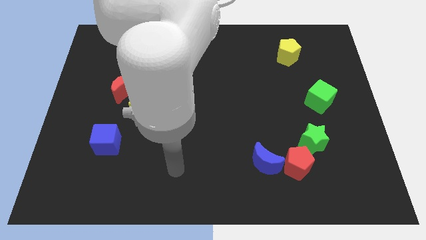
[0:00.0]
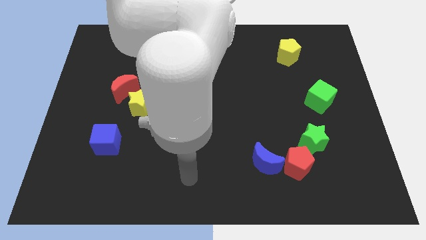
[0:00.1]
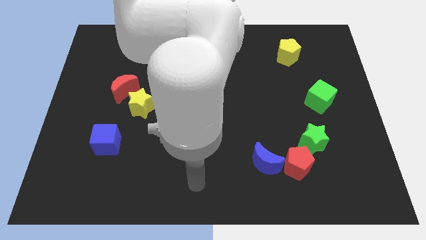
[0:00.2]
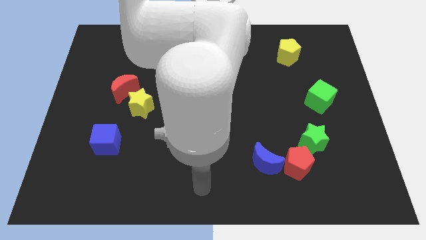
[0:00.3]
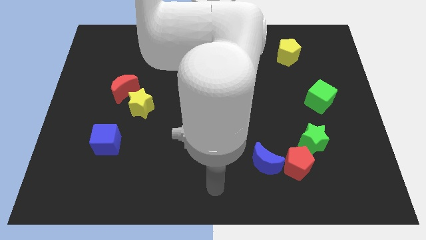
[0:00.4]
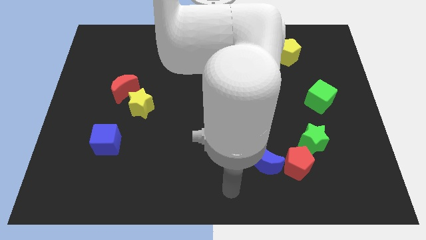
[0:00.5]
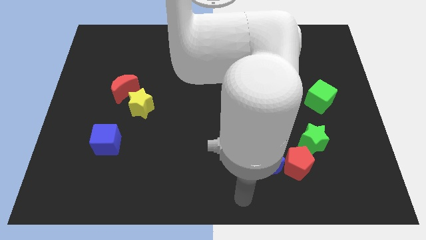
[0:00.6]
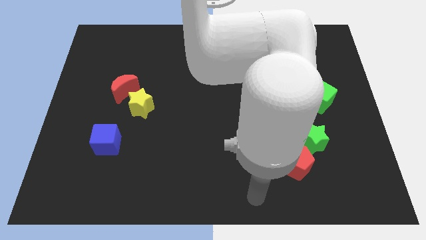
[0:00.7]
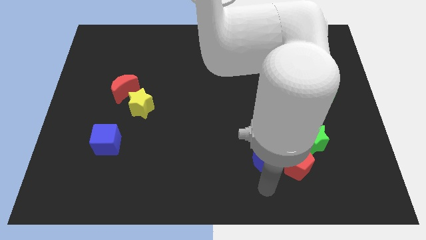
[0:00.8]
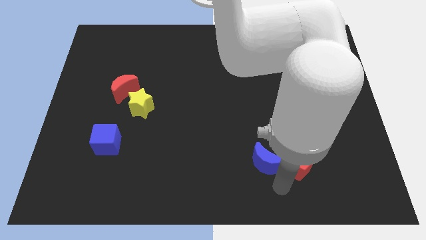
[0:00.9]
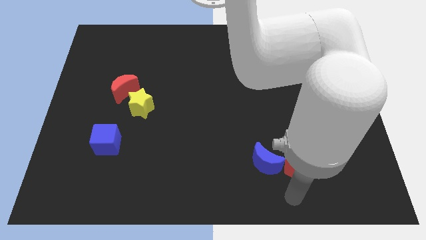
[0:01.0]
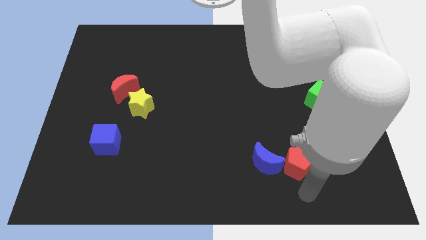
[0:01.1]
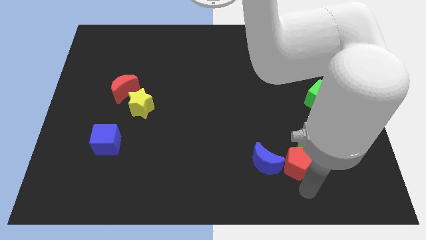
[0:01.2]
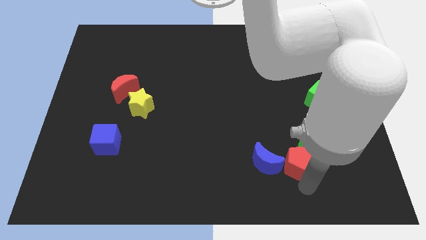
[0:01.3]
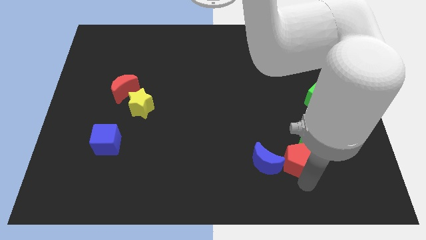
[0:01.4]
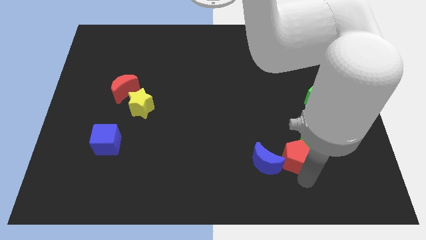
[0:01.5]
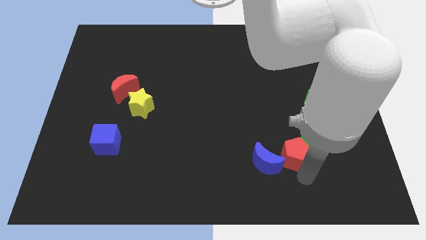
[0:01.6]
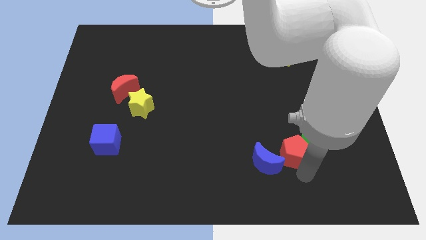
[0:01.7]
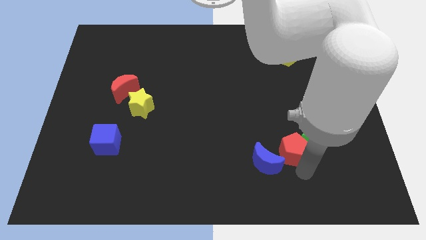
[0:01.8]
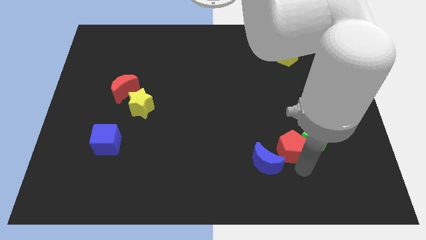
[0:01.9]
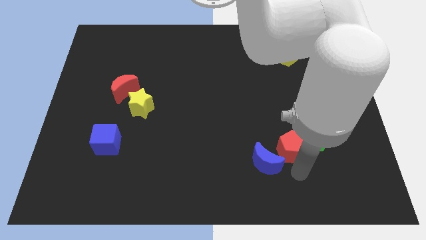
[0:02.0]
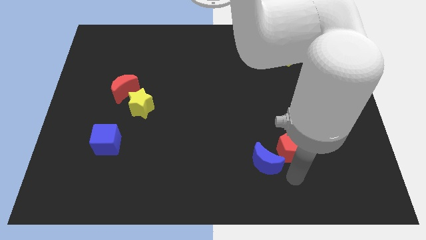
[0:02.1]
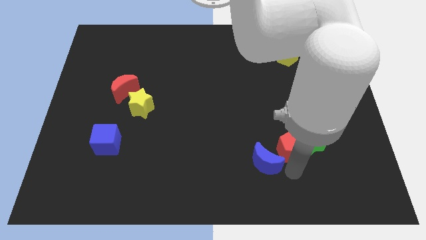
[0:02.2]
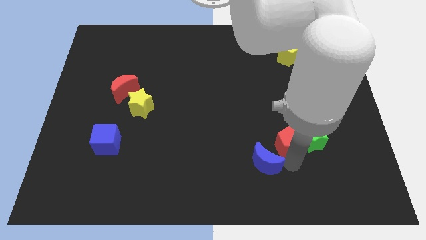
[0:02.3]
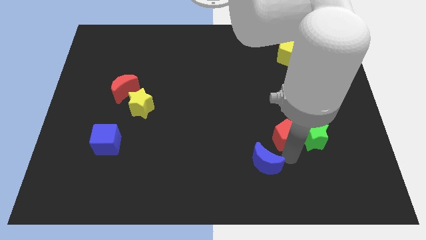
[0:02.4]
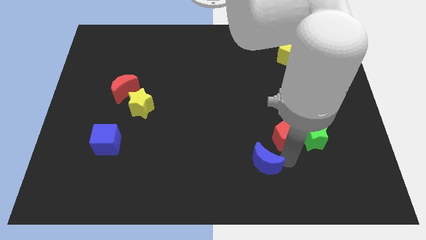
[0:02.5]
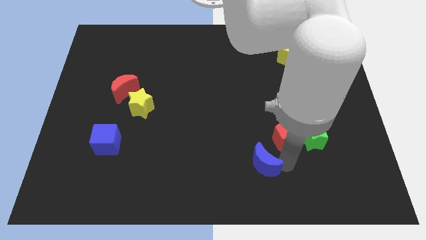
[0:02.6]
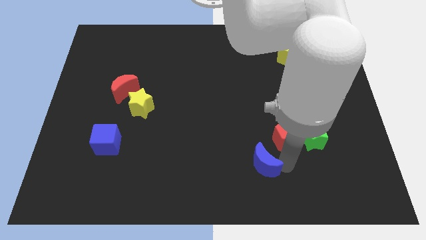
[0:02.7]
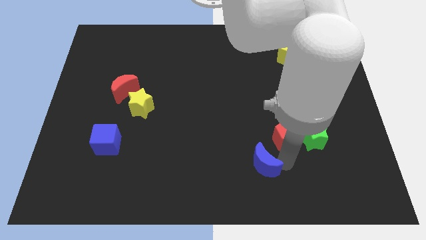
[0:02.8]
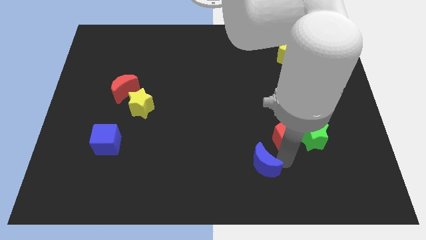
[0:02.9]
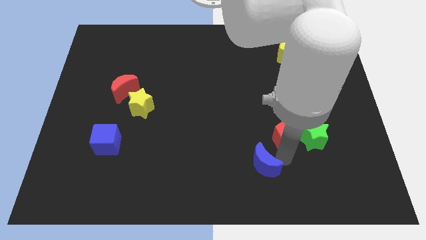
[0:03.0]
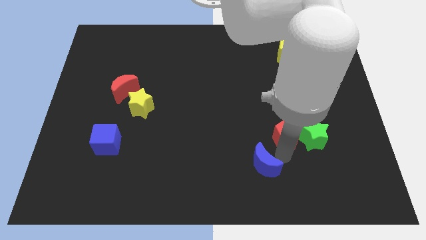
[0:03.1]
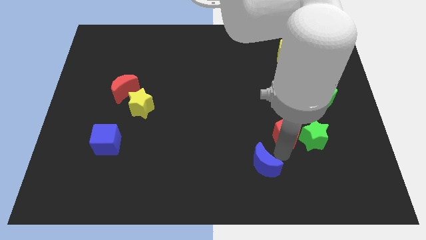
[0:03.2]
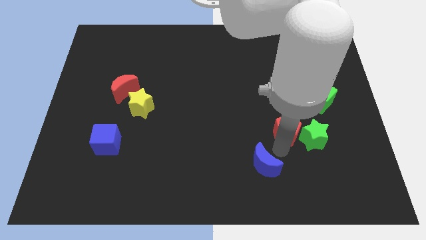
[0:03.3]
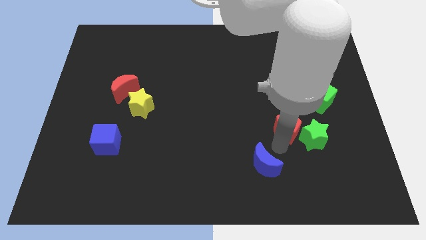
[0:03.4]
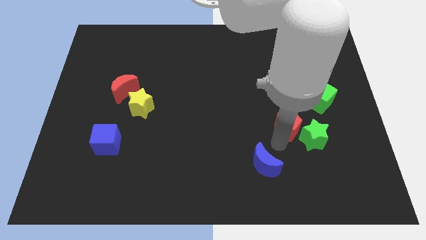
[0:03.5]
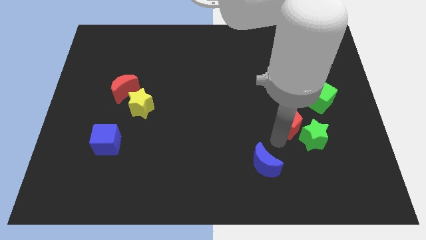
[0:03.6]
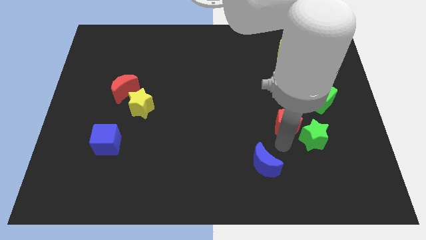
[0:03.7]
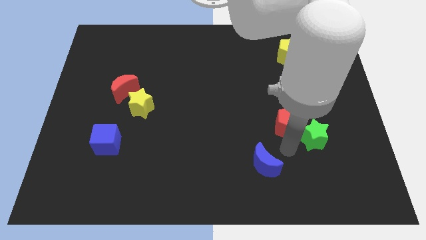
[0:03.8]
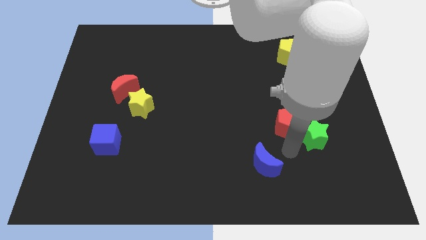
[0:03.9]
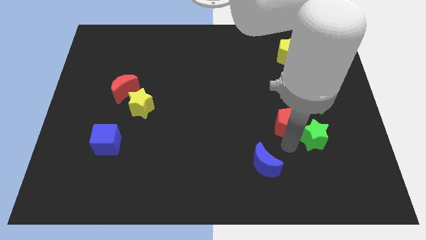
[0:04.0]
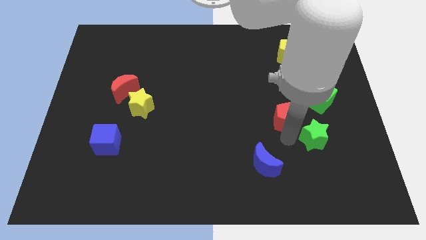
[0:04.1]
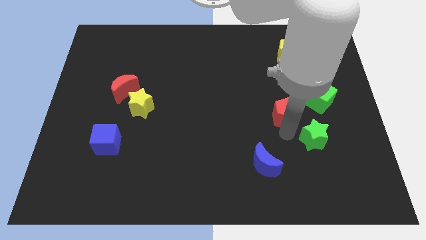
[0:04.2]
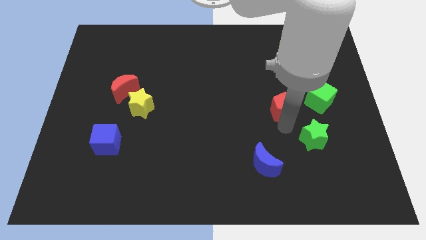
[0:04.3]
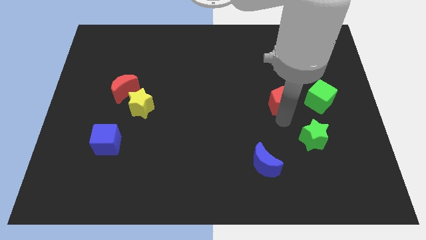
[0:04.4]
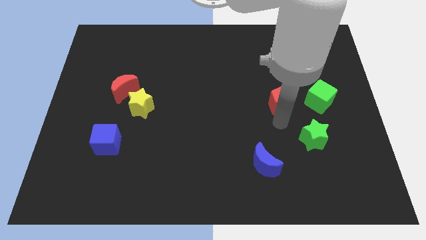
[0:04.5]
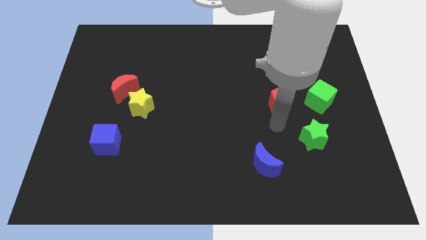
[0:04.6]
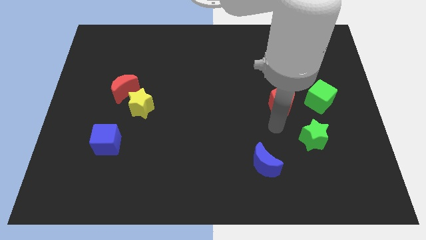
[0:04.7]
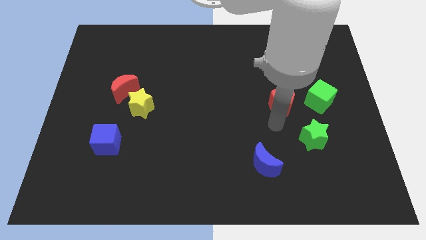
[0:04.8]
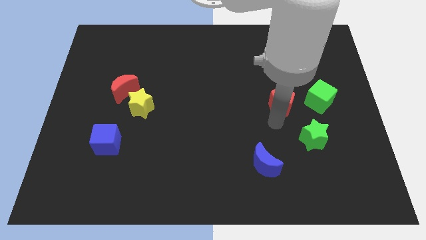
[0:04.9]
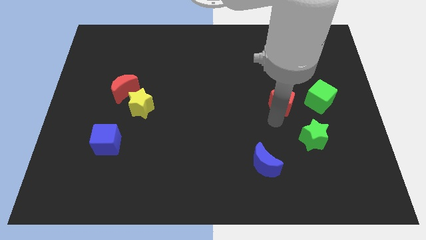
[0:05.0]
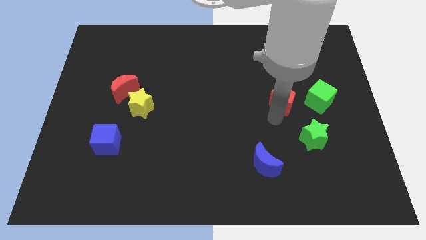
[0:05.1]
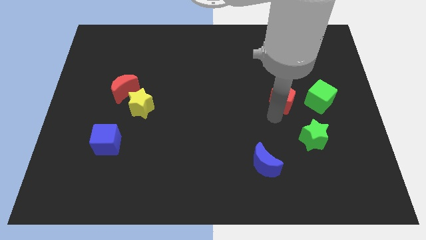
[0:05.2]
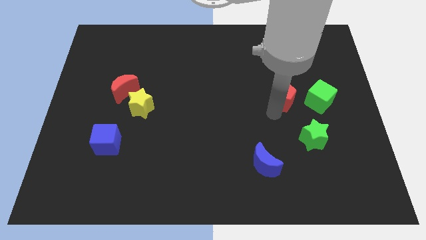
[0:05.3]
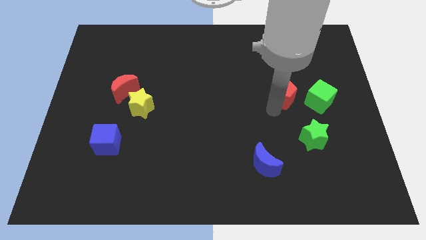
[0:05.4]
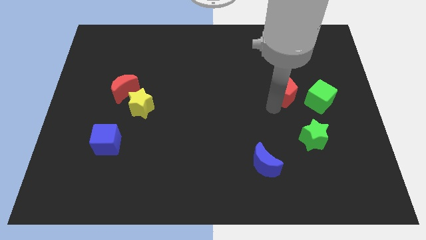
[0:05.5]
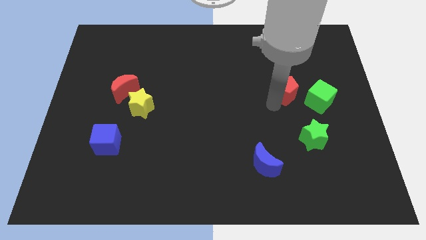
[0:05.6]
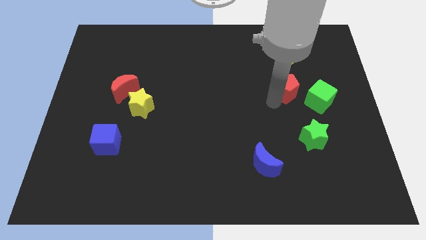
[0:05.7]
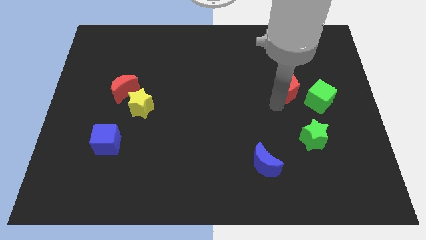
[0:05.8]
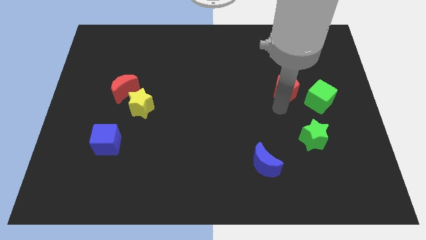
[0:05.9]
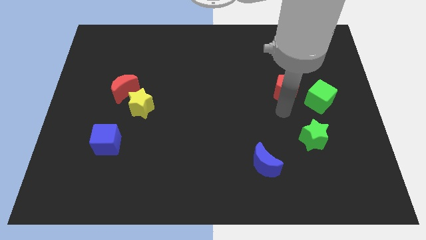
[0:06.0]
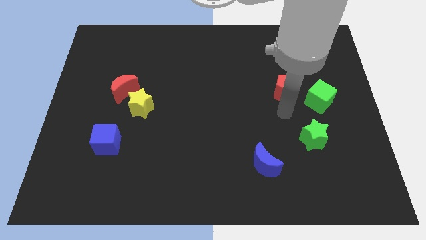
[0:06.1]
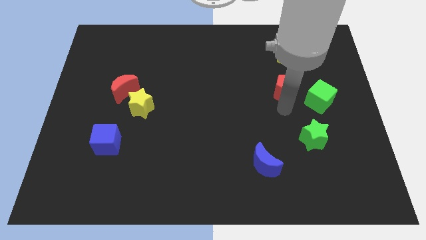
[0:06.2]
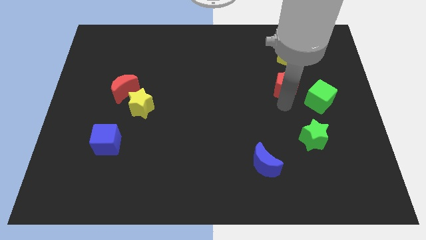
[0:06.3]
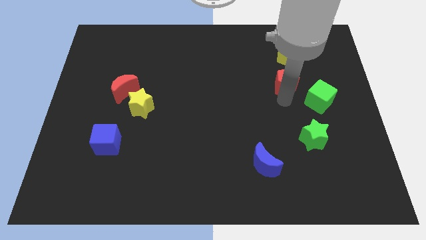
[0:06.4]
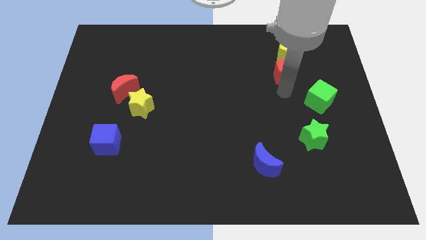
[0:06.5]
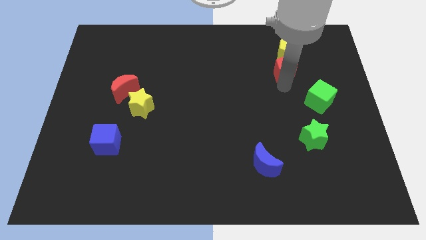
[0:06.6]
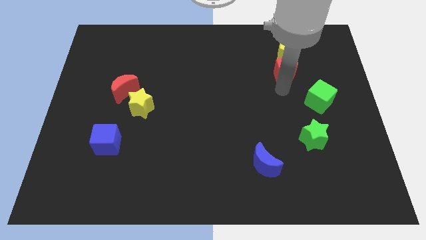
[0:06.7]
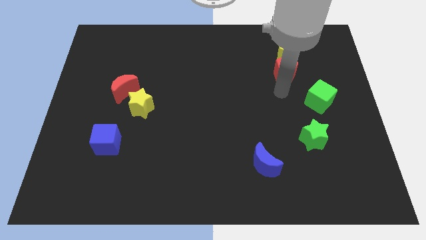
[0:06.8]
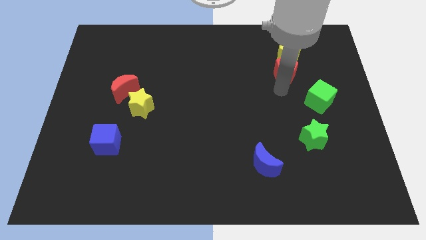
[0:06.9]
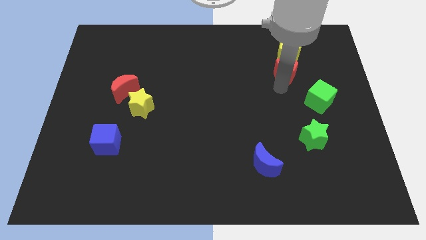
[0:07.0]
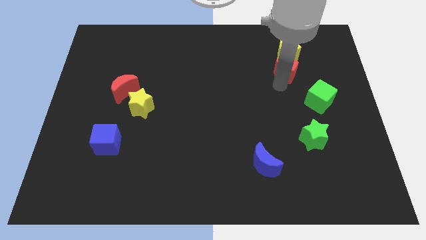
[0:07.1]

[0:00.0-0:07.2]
slide the red pentagon towards the yellow pentagon

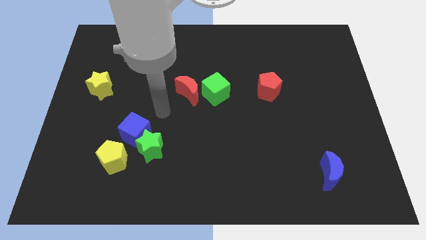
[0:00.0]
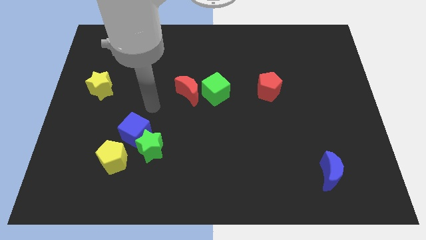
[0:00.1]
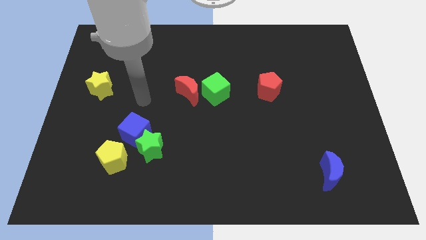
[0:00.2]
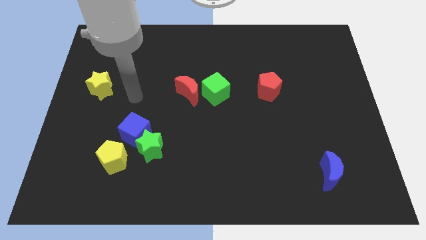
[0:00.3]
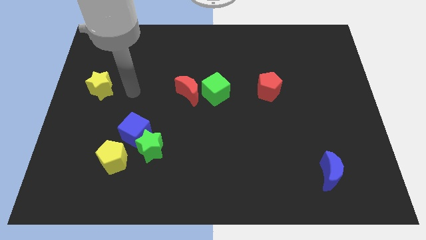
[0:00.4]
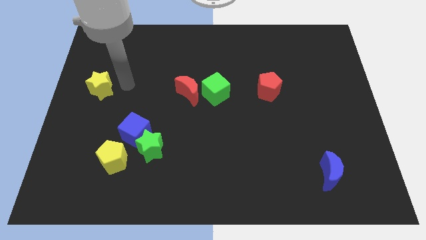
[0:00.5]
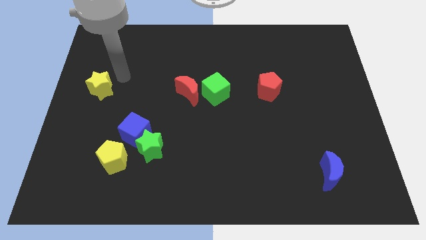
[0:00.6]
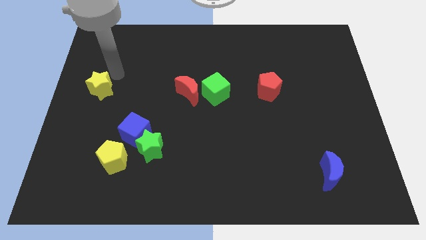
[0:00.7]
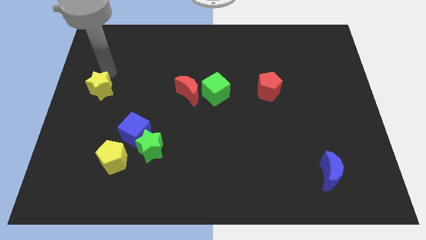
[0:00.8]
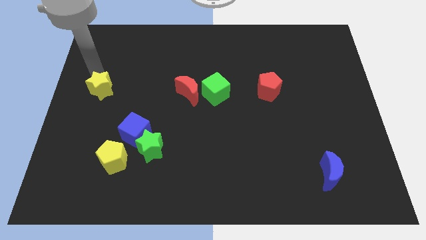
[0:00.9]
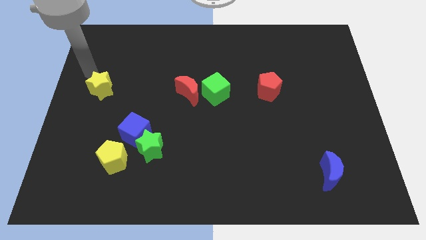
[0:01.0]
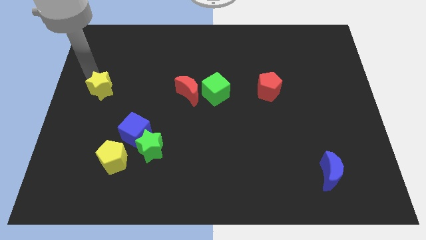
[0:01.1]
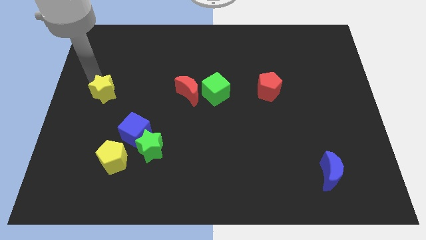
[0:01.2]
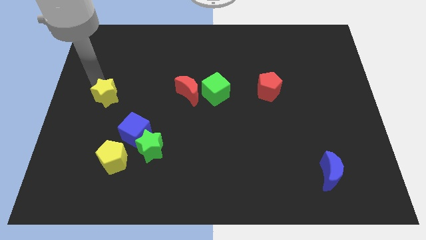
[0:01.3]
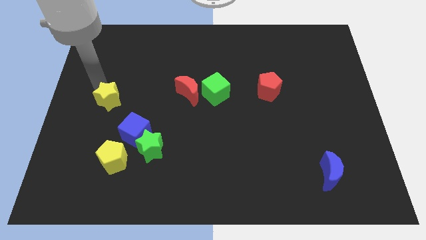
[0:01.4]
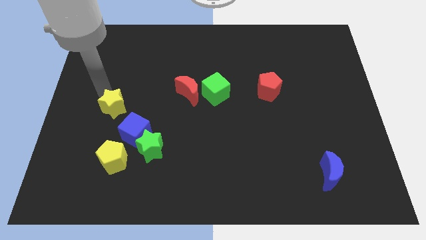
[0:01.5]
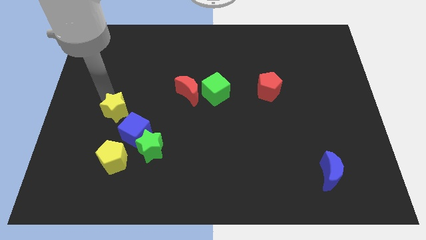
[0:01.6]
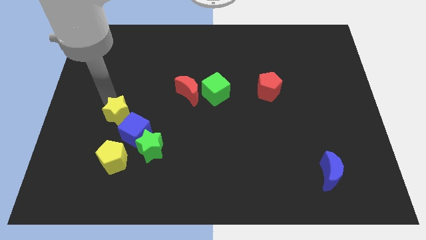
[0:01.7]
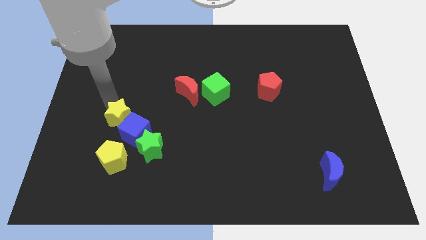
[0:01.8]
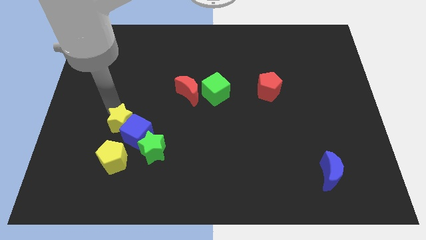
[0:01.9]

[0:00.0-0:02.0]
push the yellow star towards the blue cube
